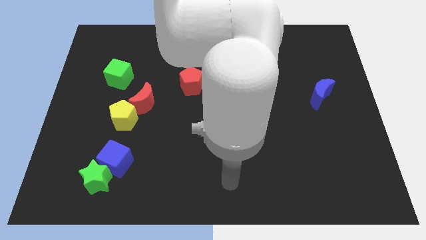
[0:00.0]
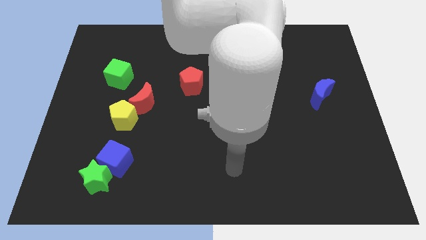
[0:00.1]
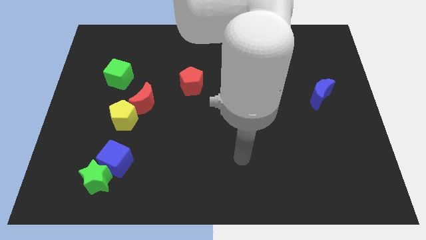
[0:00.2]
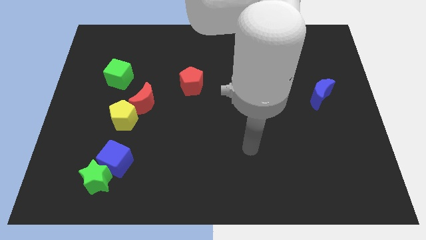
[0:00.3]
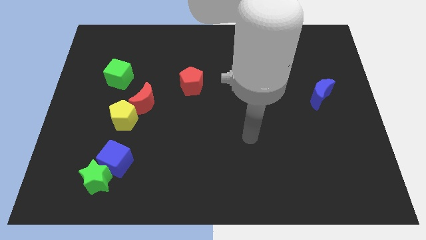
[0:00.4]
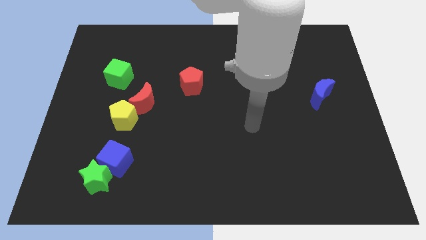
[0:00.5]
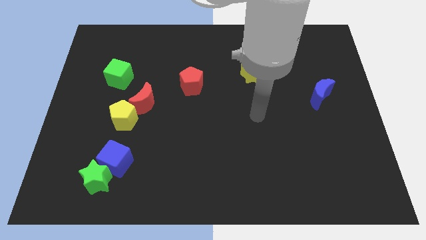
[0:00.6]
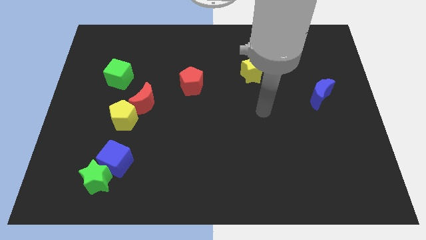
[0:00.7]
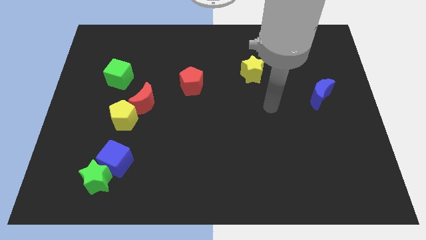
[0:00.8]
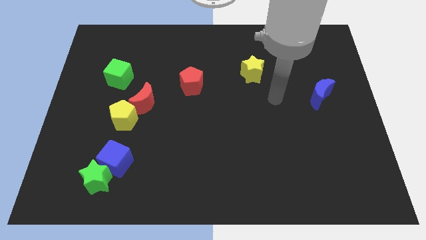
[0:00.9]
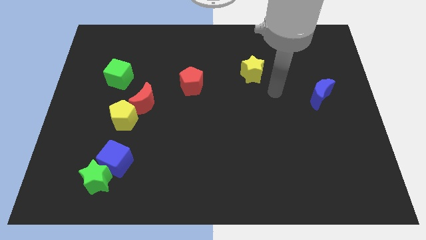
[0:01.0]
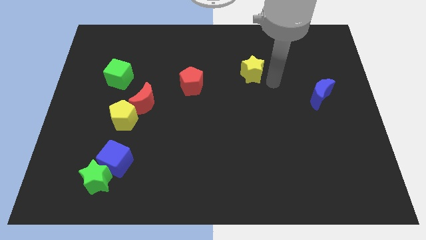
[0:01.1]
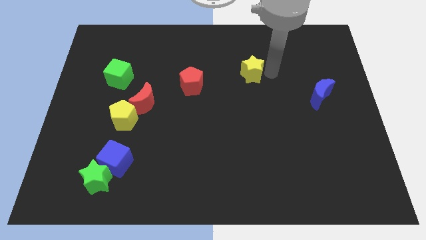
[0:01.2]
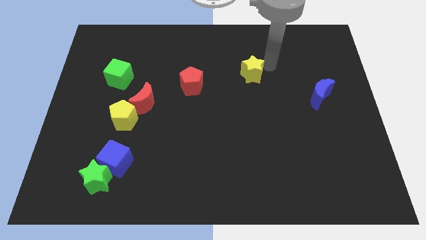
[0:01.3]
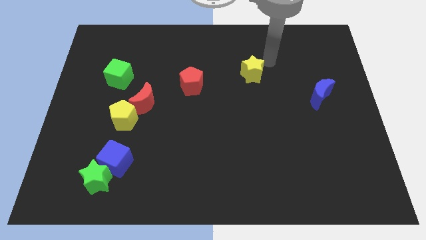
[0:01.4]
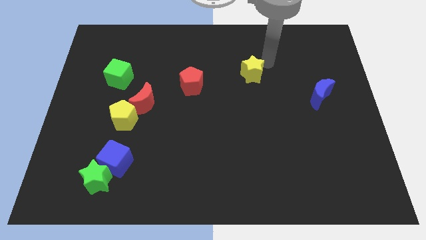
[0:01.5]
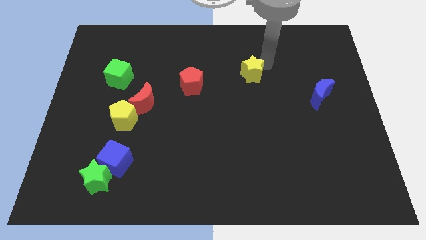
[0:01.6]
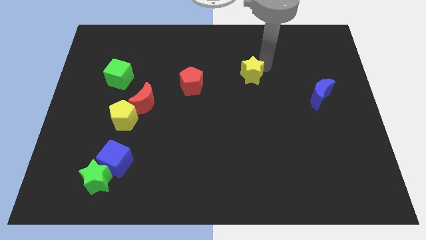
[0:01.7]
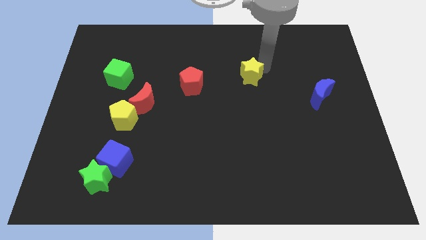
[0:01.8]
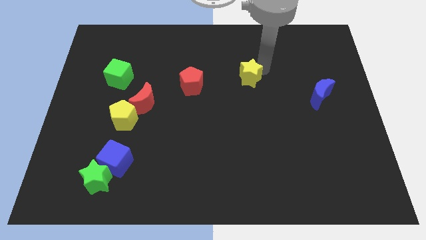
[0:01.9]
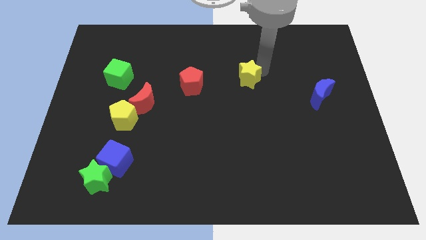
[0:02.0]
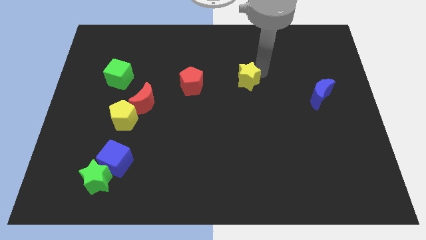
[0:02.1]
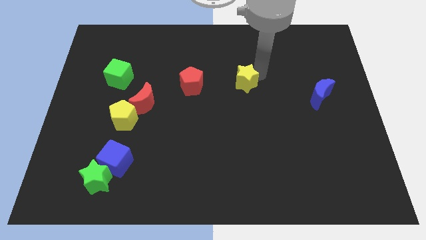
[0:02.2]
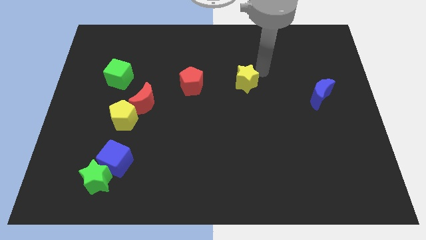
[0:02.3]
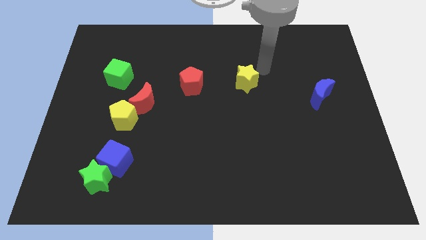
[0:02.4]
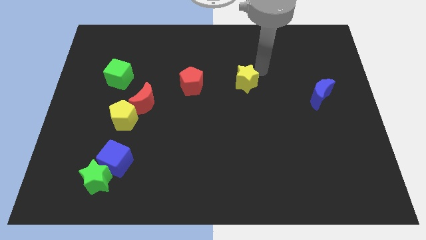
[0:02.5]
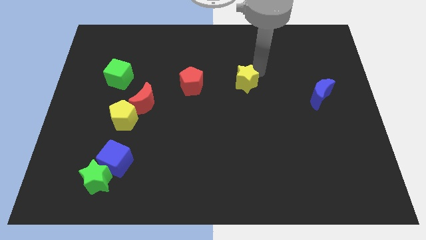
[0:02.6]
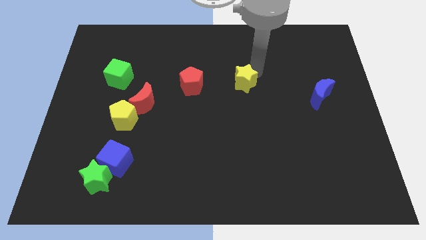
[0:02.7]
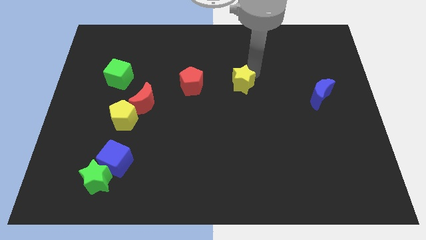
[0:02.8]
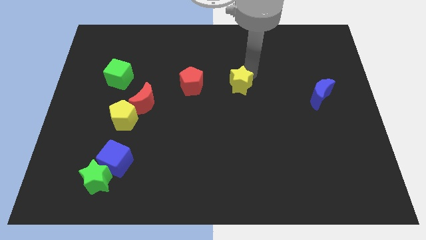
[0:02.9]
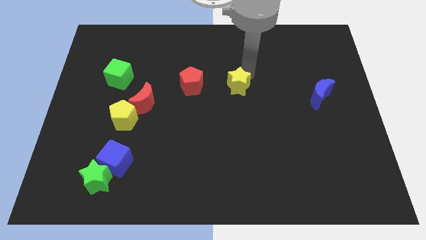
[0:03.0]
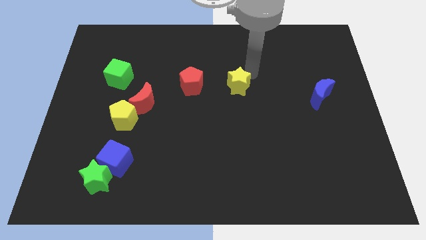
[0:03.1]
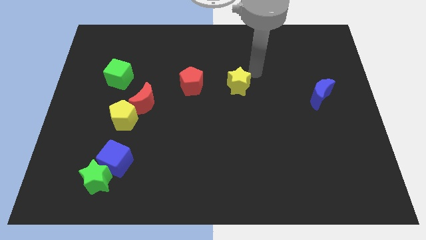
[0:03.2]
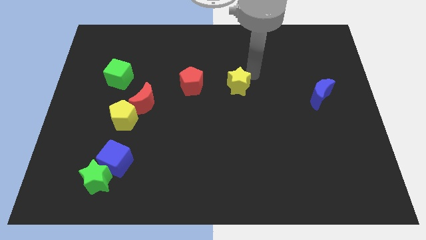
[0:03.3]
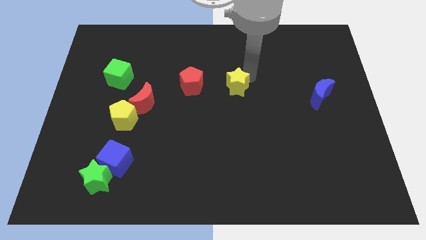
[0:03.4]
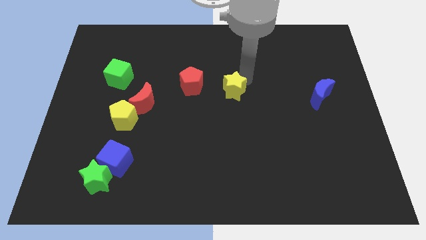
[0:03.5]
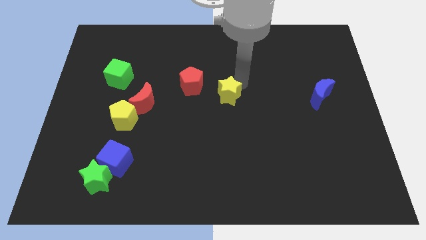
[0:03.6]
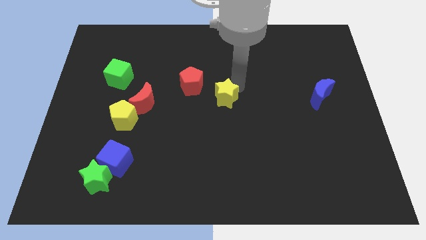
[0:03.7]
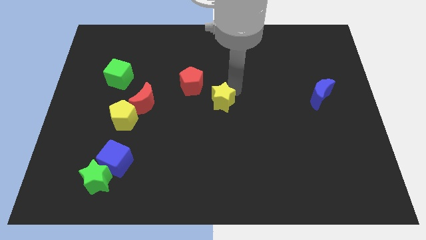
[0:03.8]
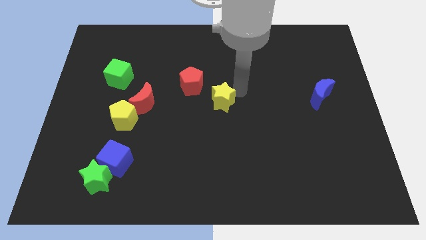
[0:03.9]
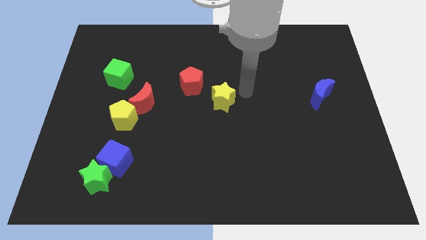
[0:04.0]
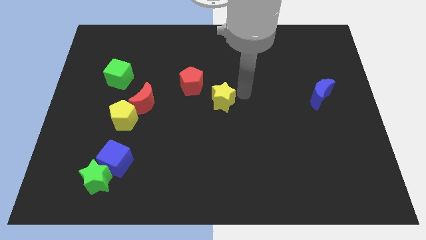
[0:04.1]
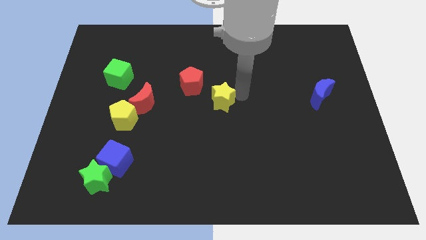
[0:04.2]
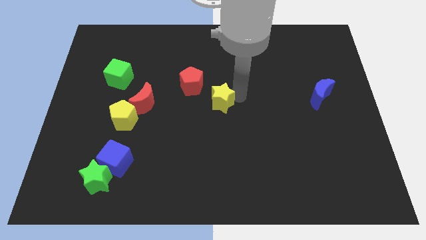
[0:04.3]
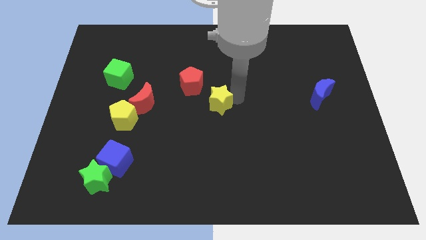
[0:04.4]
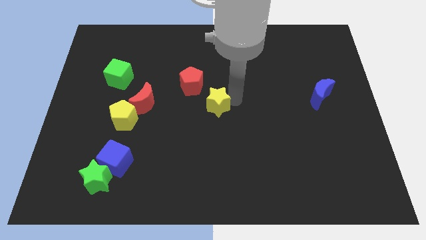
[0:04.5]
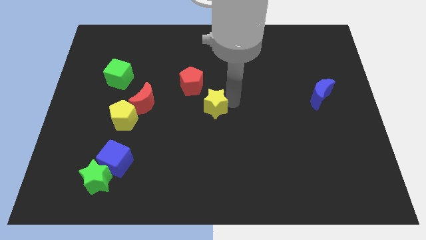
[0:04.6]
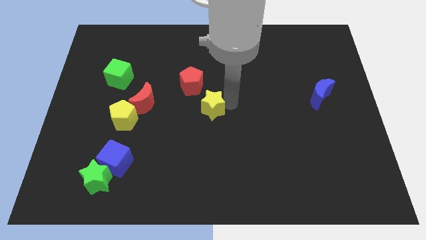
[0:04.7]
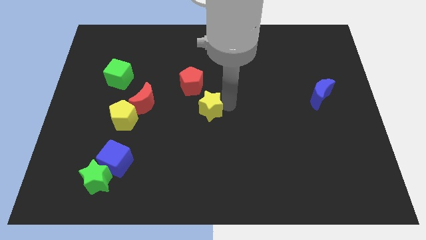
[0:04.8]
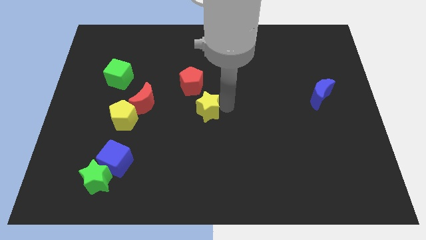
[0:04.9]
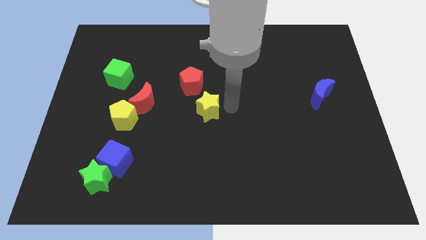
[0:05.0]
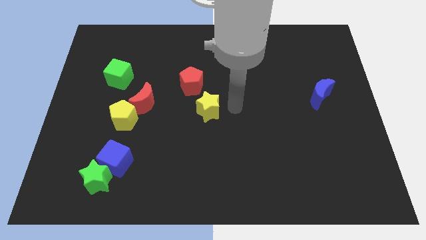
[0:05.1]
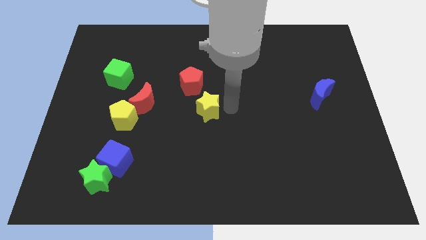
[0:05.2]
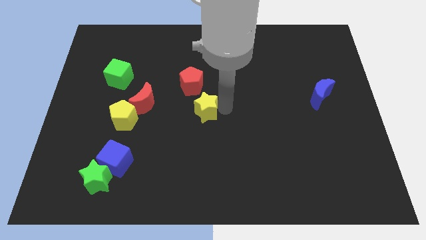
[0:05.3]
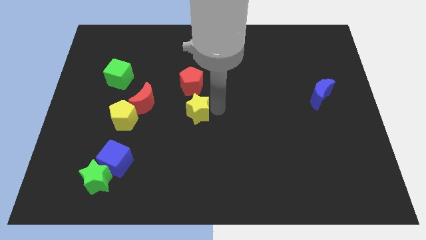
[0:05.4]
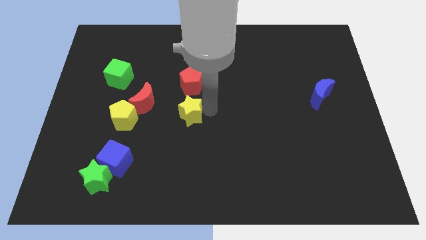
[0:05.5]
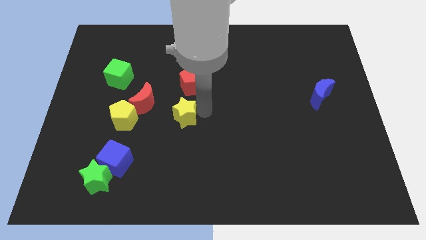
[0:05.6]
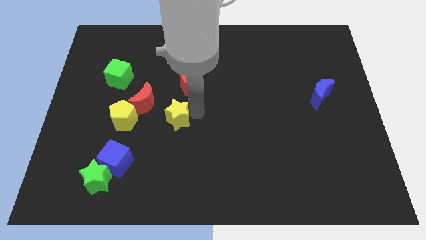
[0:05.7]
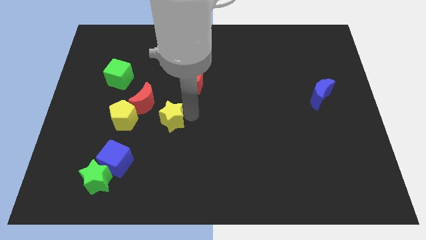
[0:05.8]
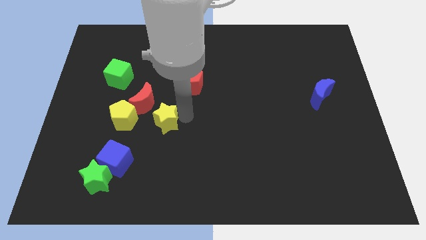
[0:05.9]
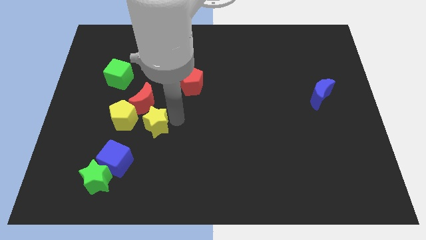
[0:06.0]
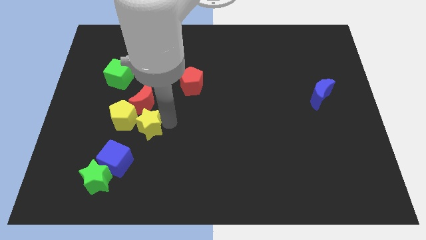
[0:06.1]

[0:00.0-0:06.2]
push the yellow star to the yellow pentagon
